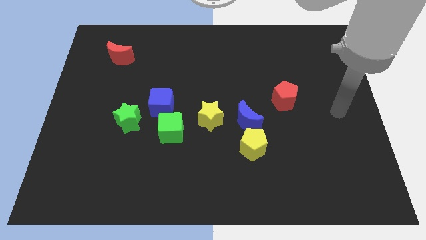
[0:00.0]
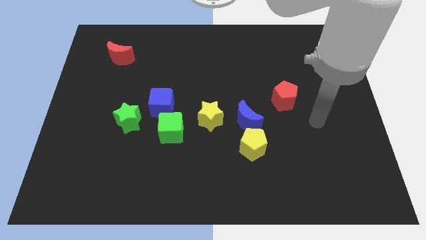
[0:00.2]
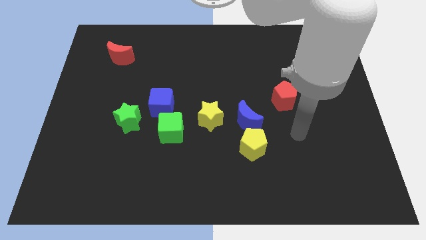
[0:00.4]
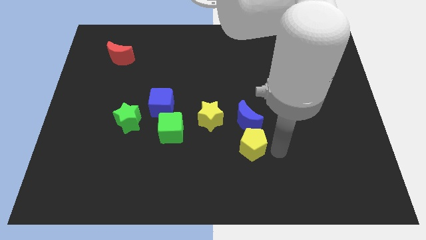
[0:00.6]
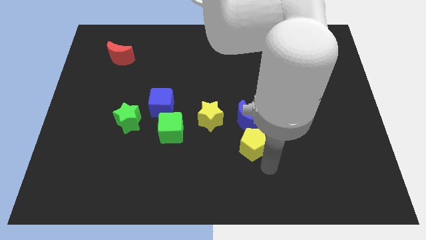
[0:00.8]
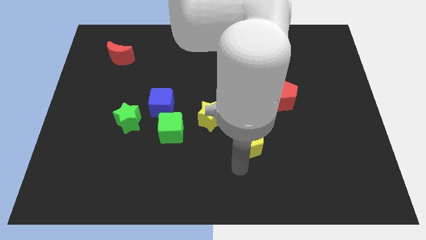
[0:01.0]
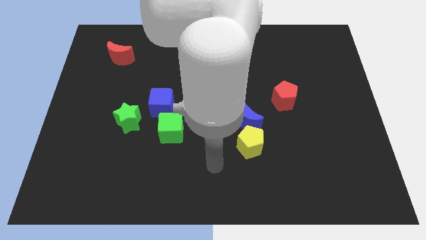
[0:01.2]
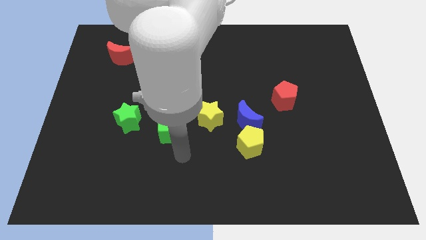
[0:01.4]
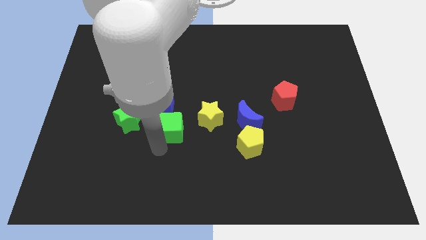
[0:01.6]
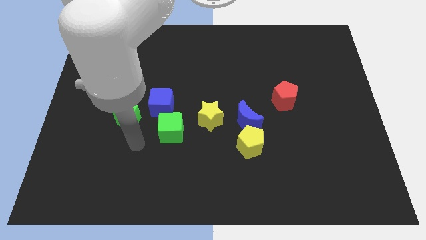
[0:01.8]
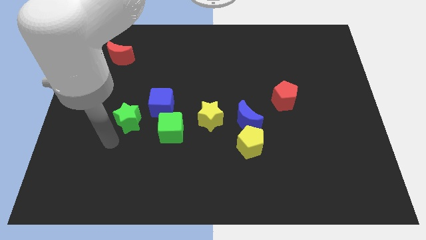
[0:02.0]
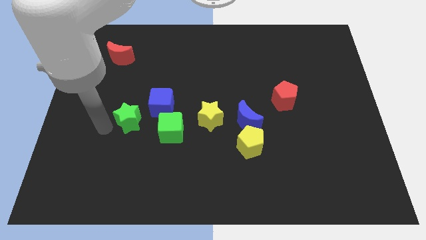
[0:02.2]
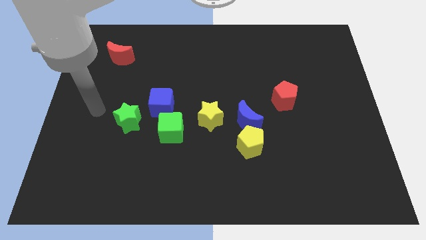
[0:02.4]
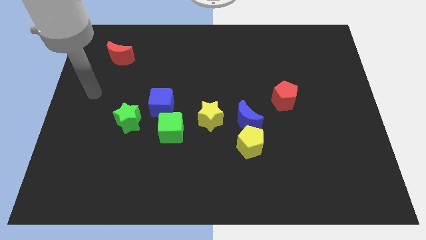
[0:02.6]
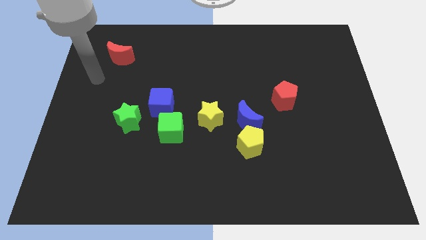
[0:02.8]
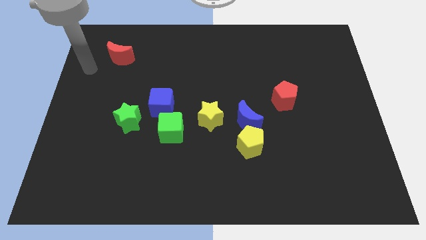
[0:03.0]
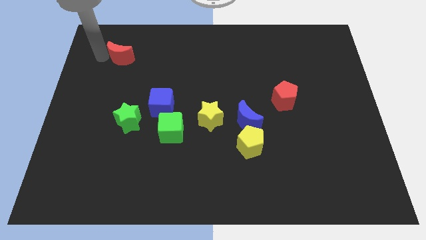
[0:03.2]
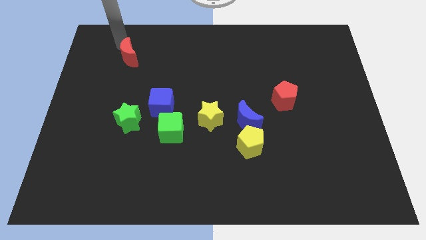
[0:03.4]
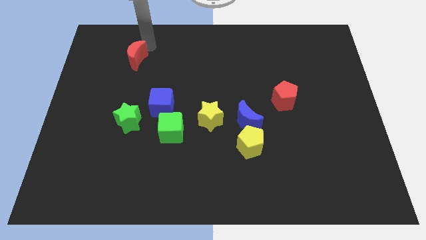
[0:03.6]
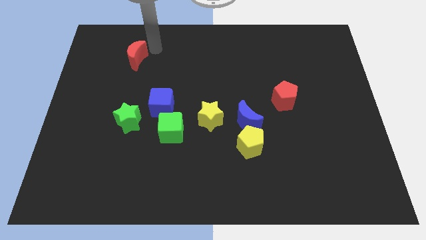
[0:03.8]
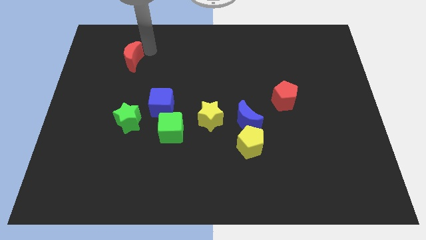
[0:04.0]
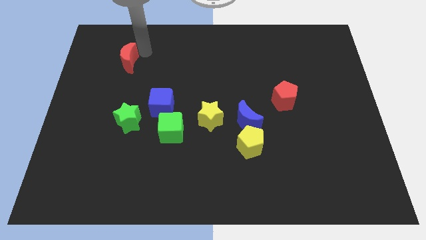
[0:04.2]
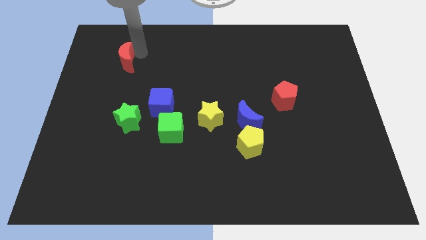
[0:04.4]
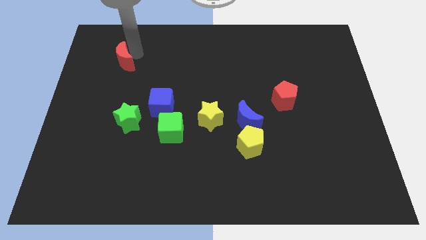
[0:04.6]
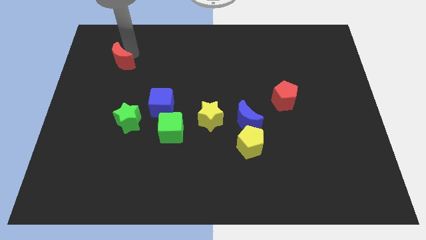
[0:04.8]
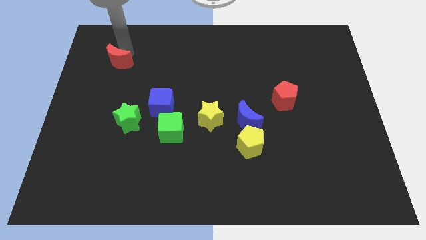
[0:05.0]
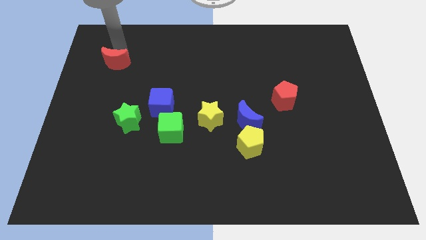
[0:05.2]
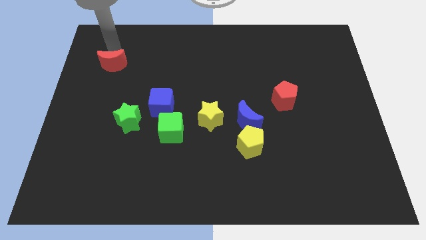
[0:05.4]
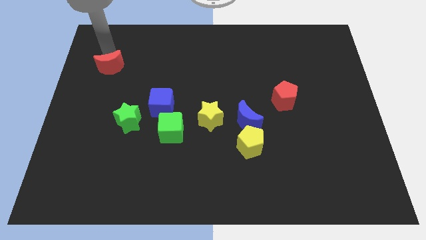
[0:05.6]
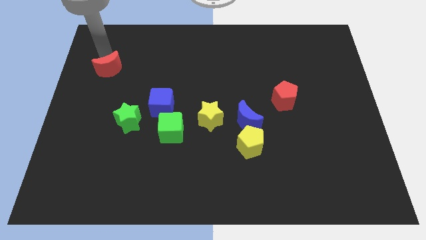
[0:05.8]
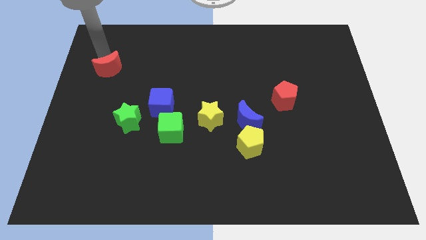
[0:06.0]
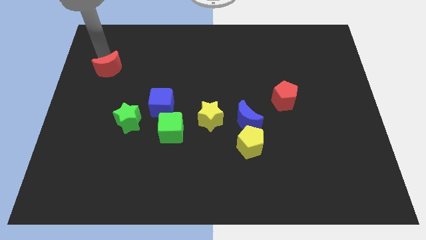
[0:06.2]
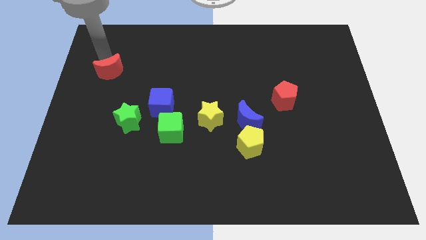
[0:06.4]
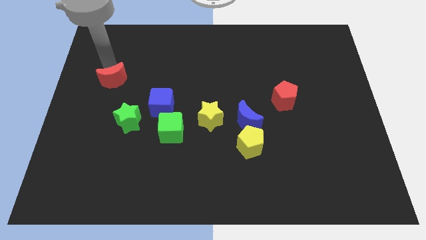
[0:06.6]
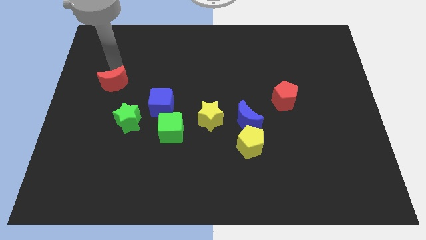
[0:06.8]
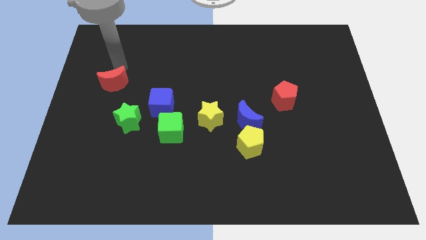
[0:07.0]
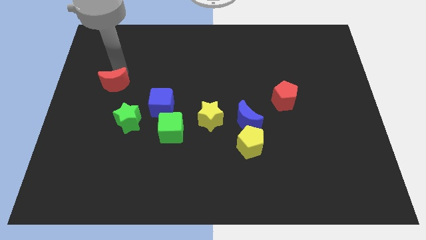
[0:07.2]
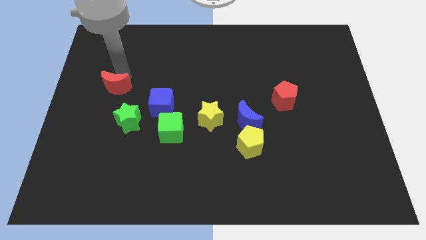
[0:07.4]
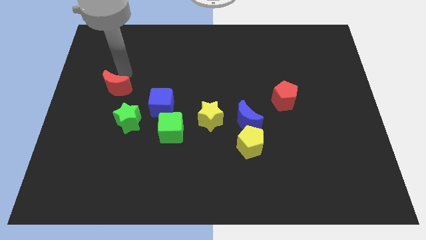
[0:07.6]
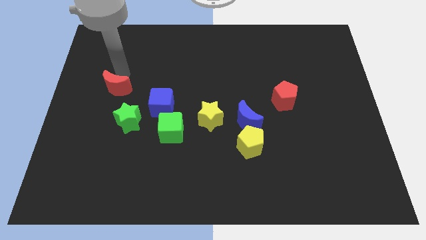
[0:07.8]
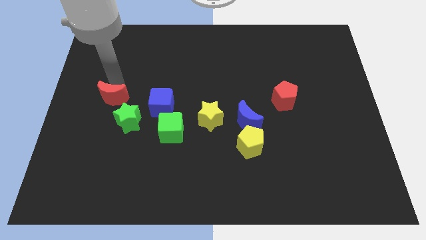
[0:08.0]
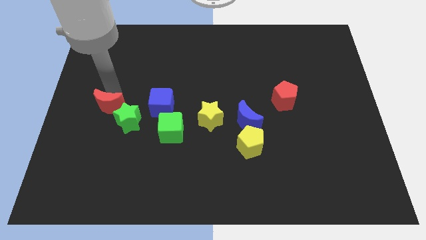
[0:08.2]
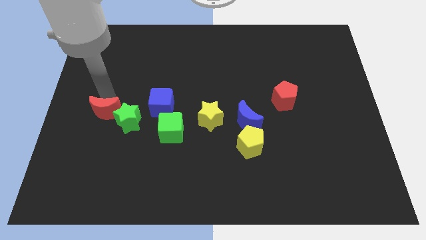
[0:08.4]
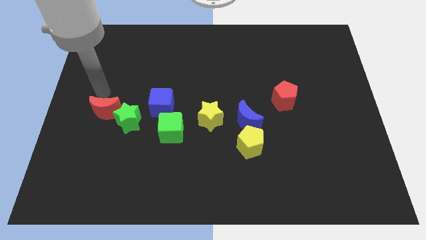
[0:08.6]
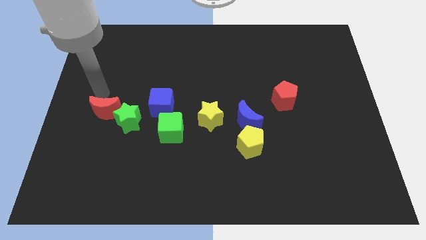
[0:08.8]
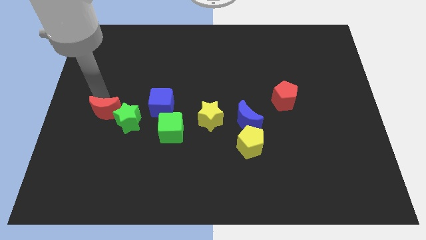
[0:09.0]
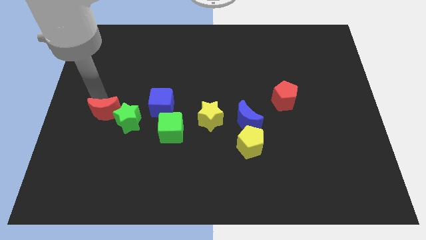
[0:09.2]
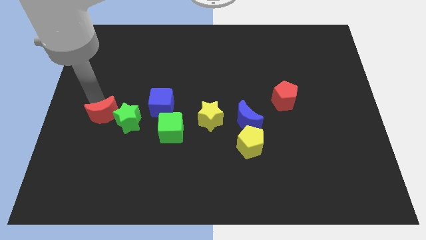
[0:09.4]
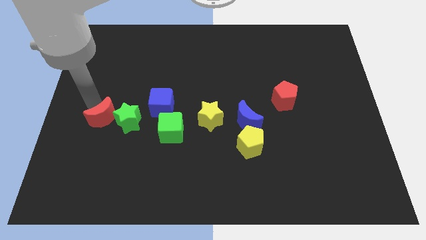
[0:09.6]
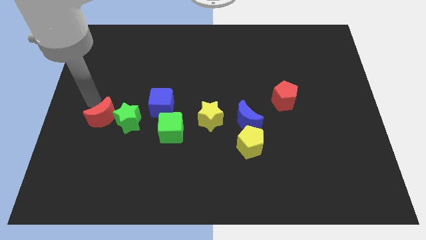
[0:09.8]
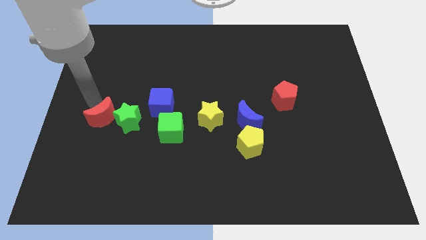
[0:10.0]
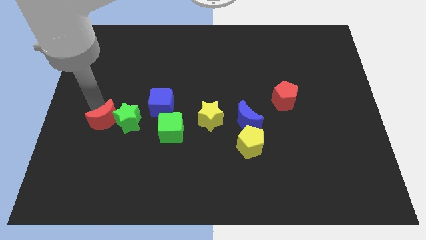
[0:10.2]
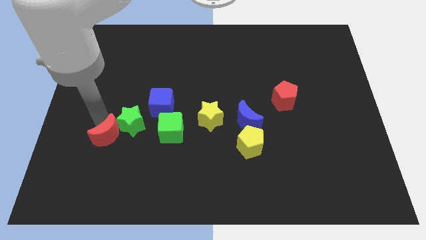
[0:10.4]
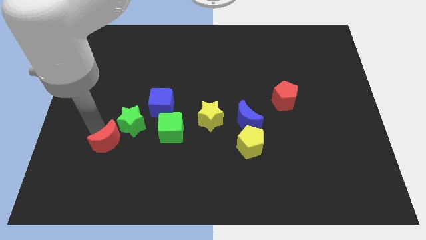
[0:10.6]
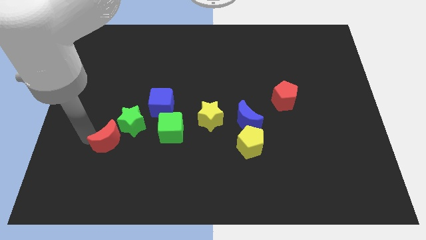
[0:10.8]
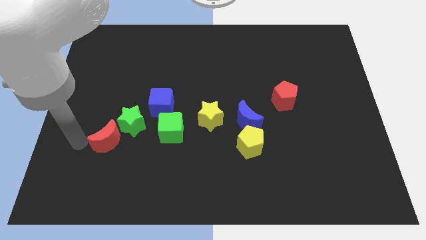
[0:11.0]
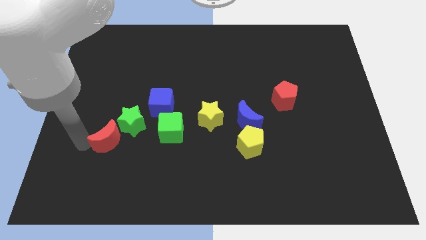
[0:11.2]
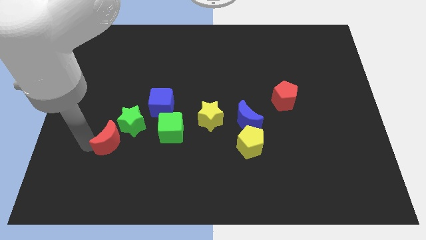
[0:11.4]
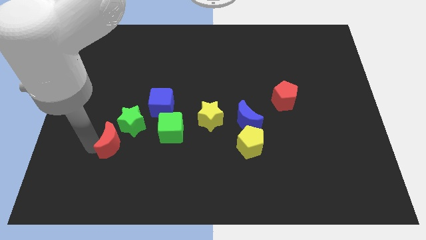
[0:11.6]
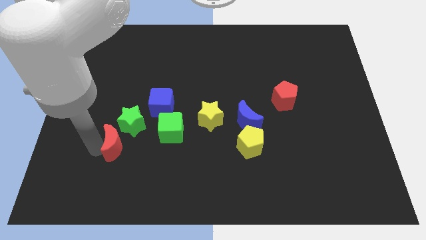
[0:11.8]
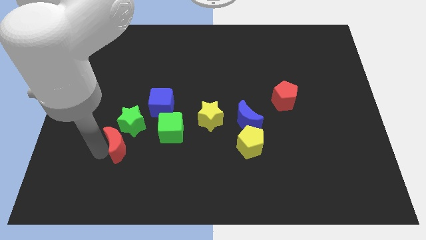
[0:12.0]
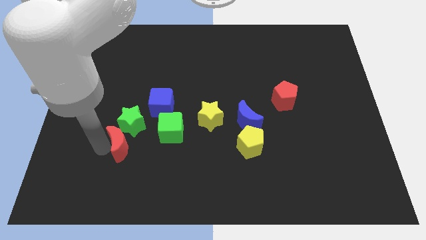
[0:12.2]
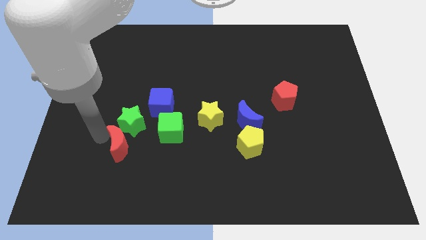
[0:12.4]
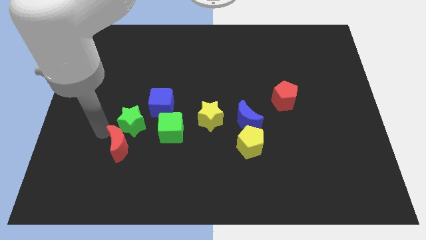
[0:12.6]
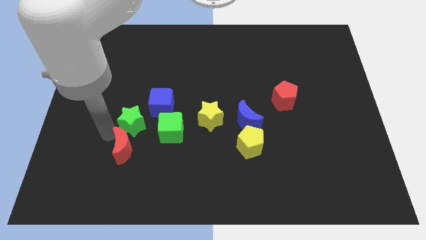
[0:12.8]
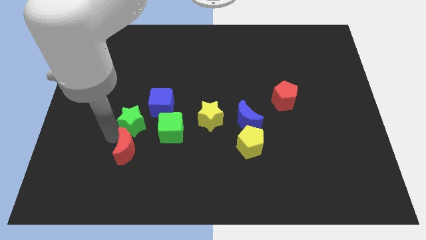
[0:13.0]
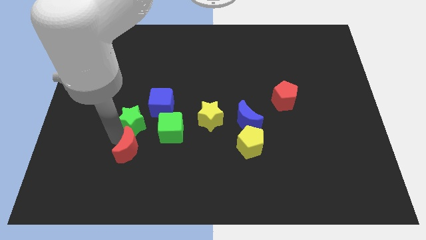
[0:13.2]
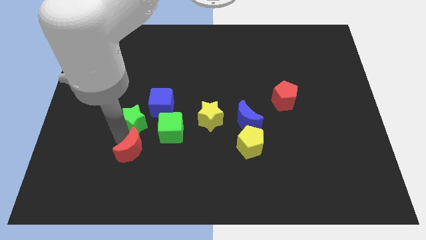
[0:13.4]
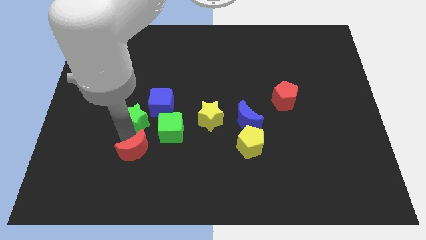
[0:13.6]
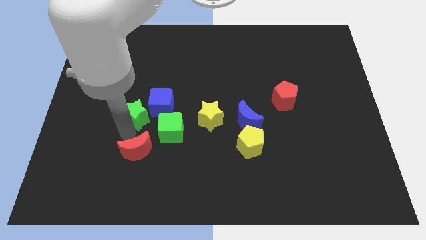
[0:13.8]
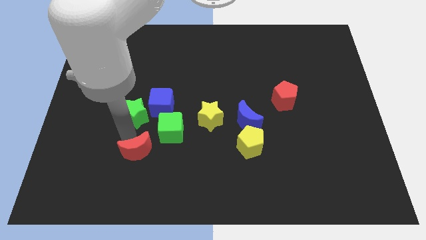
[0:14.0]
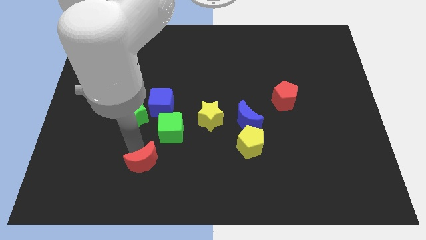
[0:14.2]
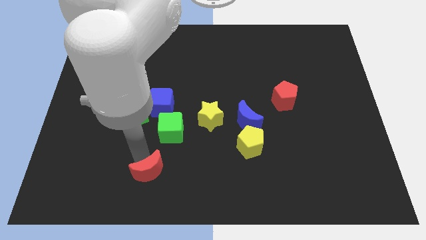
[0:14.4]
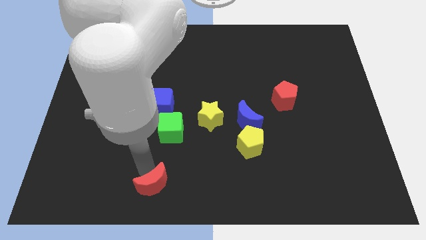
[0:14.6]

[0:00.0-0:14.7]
slide the red moon to the bottom
